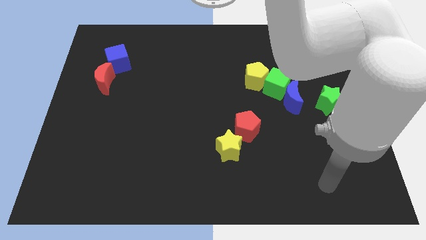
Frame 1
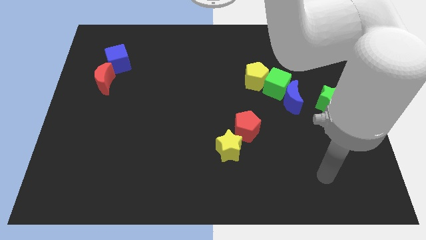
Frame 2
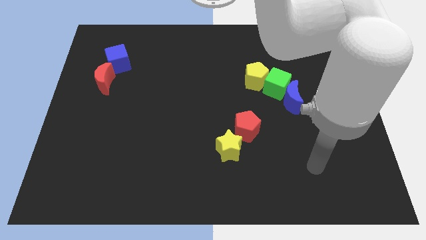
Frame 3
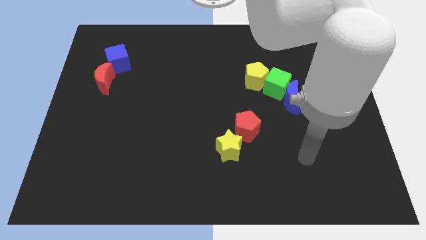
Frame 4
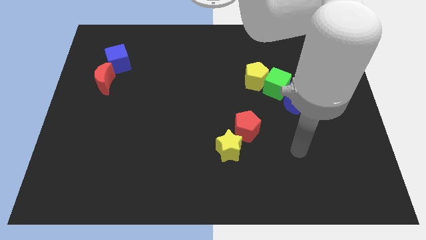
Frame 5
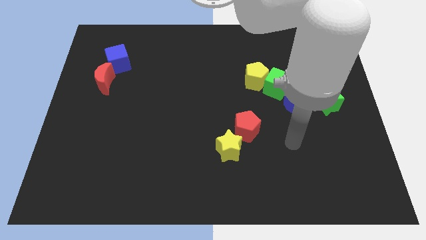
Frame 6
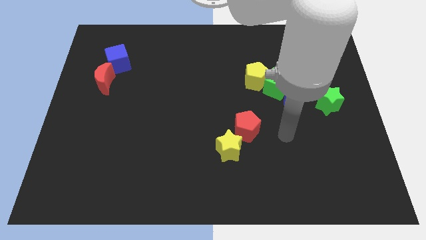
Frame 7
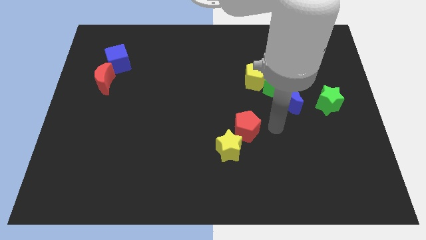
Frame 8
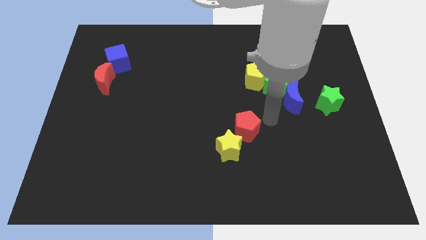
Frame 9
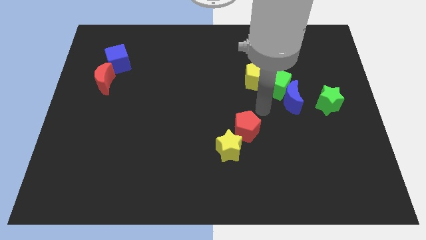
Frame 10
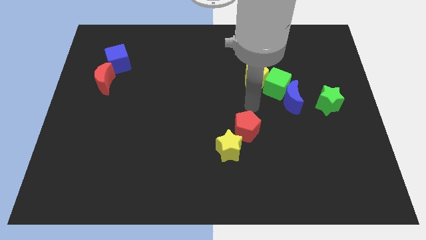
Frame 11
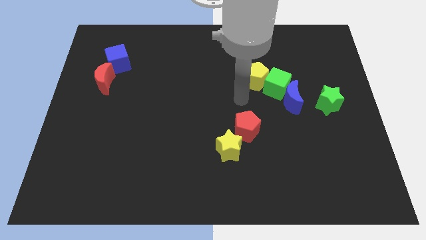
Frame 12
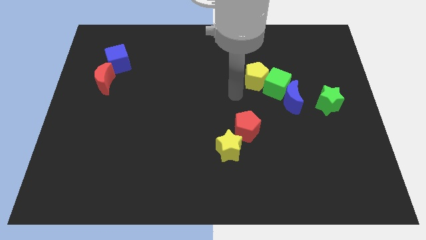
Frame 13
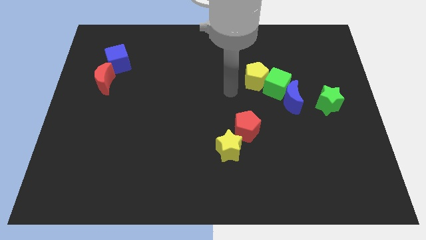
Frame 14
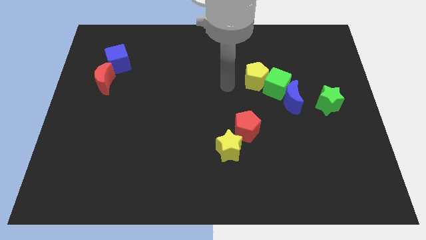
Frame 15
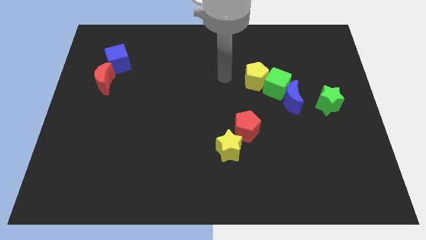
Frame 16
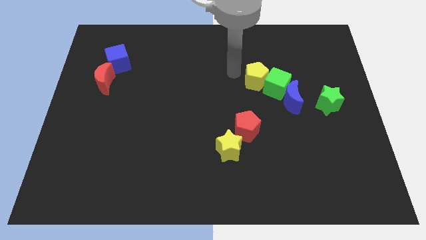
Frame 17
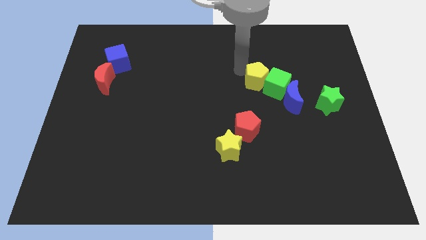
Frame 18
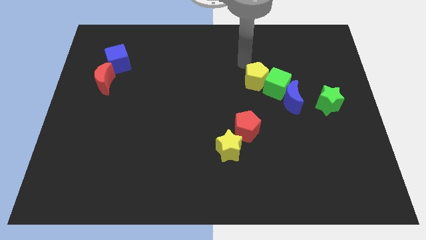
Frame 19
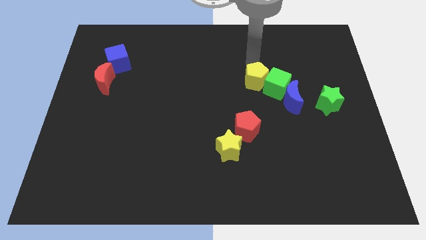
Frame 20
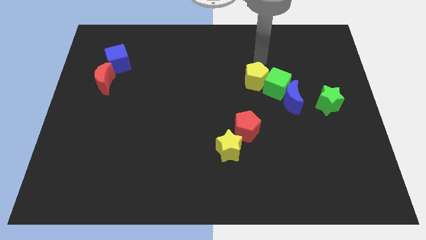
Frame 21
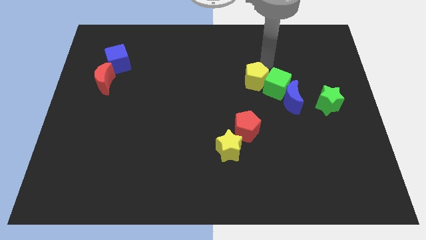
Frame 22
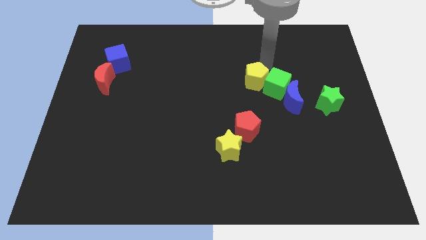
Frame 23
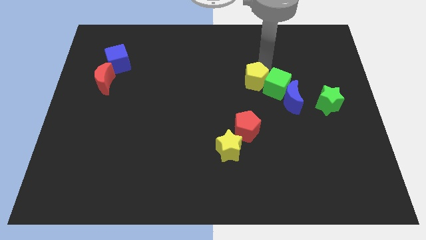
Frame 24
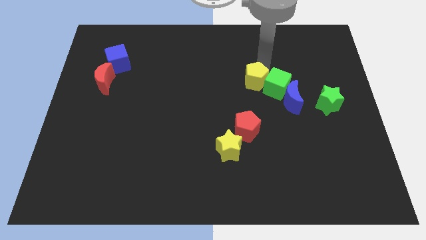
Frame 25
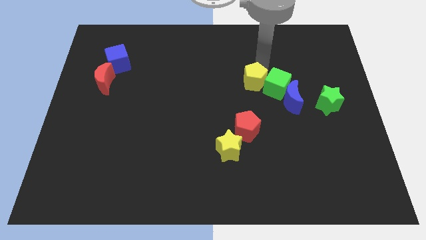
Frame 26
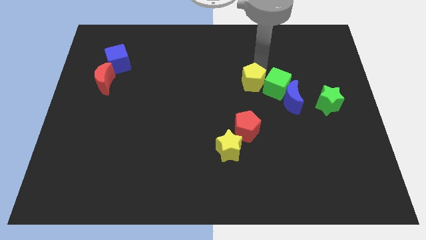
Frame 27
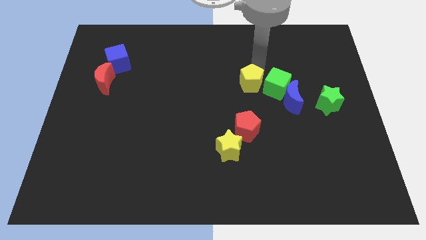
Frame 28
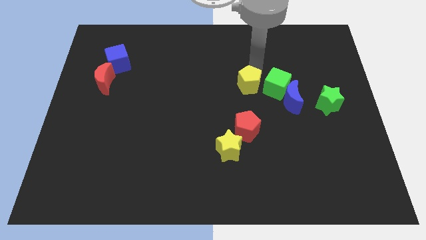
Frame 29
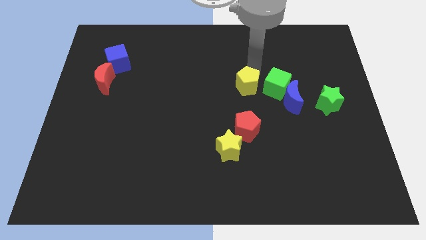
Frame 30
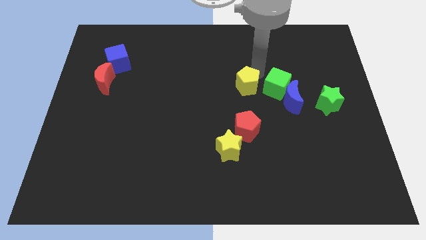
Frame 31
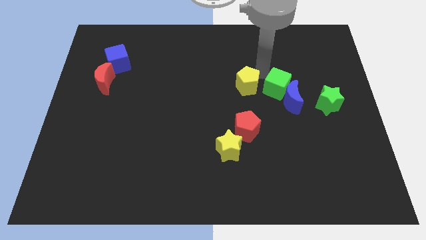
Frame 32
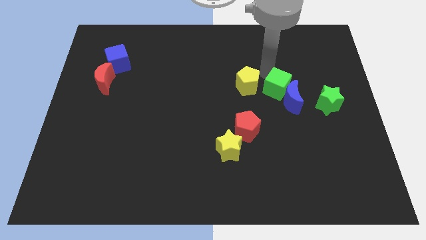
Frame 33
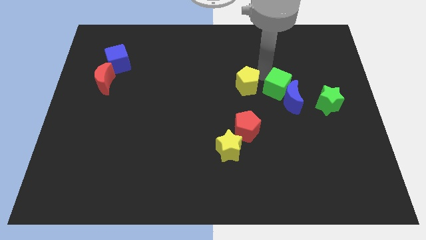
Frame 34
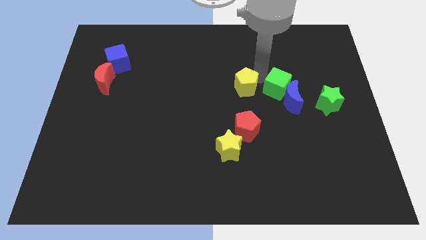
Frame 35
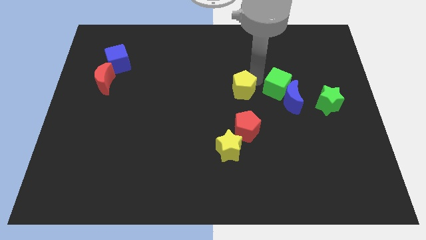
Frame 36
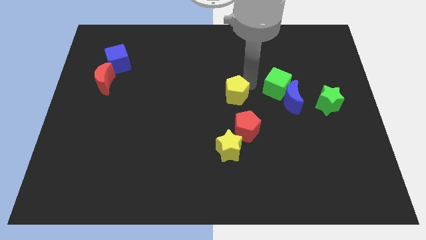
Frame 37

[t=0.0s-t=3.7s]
push the yellow pentagon a little down and left diagonally

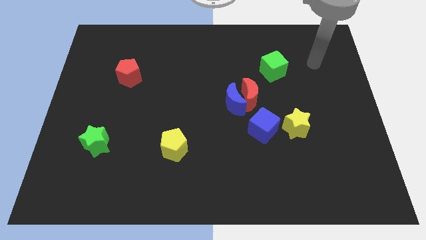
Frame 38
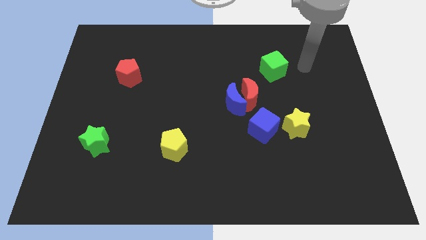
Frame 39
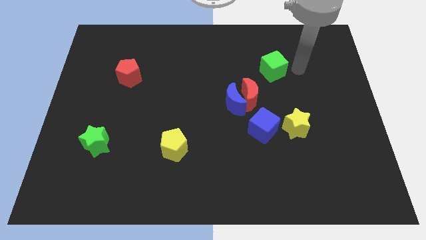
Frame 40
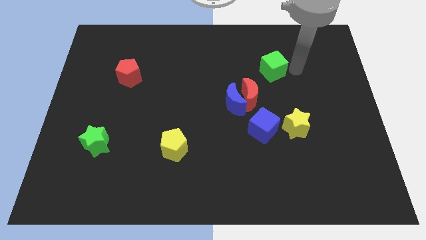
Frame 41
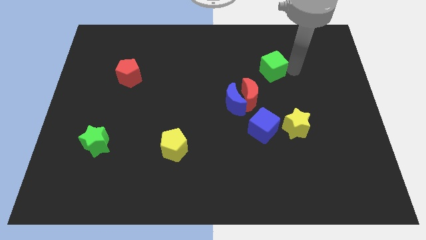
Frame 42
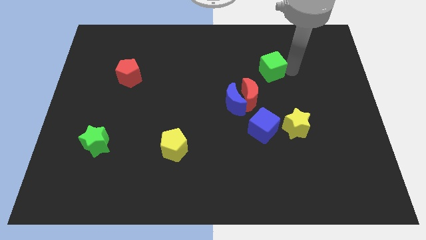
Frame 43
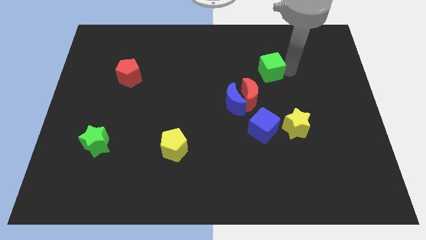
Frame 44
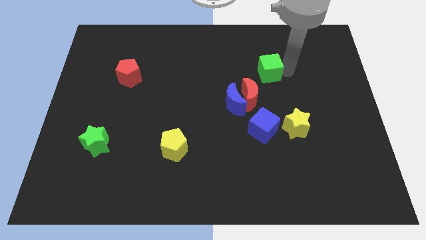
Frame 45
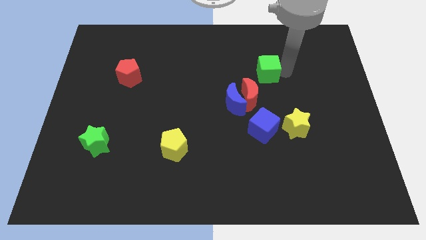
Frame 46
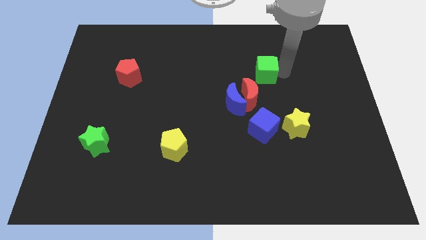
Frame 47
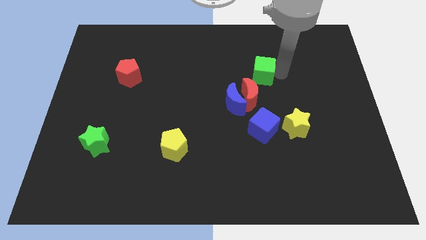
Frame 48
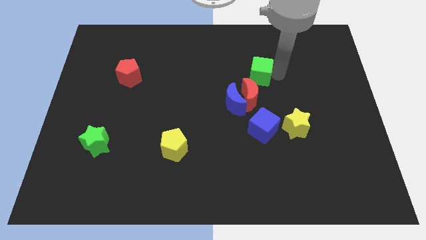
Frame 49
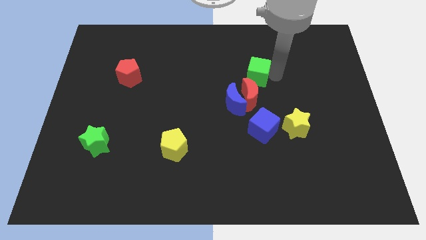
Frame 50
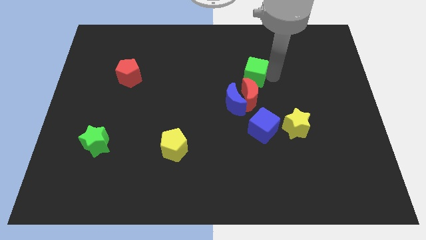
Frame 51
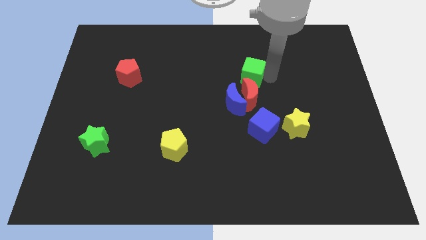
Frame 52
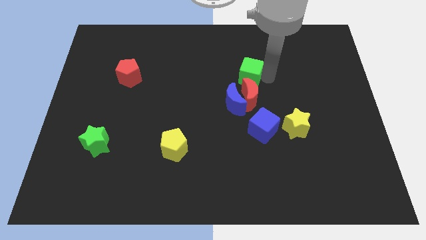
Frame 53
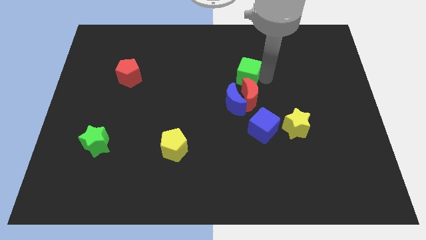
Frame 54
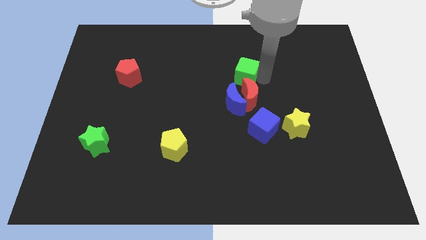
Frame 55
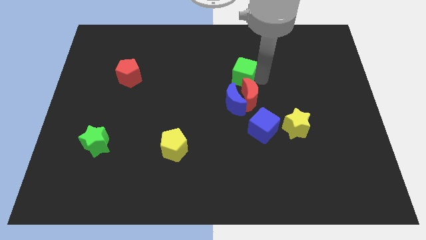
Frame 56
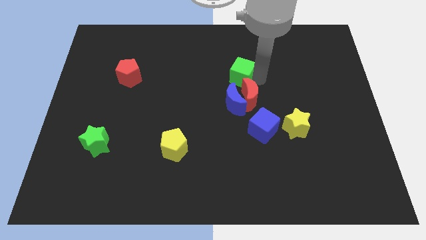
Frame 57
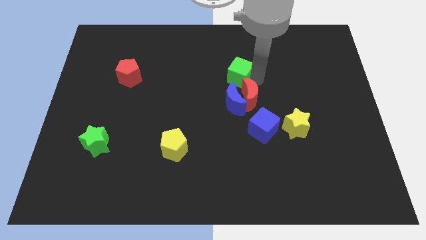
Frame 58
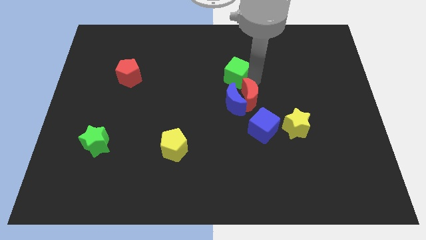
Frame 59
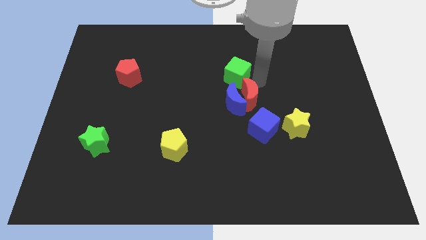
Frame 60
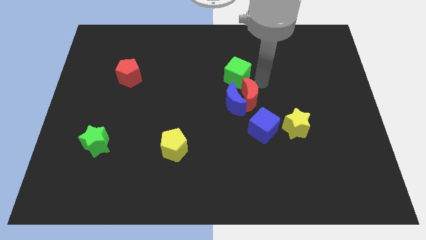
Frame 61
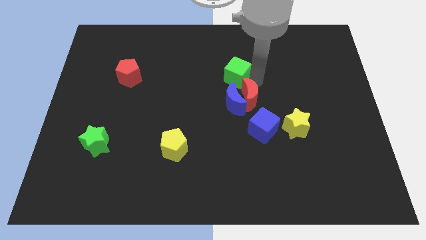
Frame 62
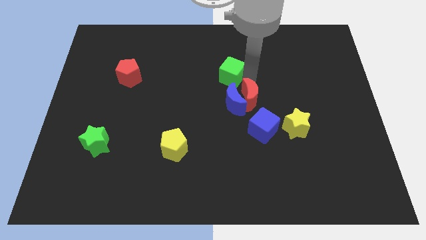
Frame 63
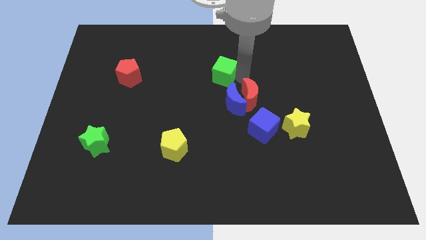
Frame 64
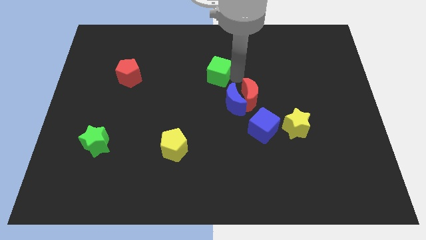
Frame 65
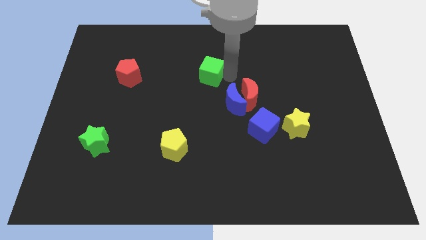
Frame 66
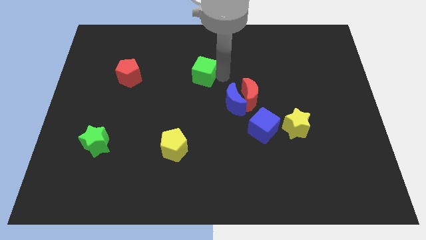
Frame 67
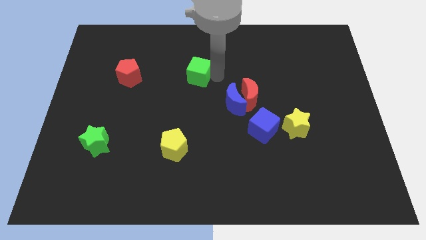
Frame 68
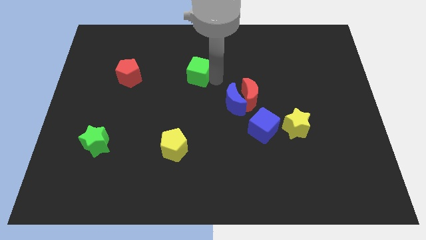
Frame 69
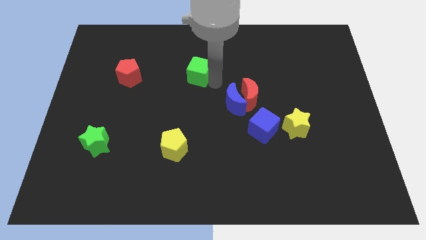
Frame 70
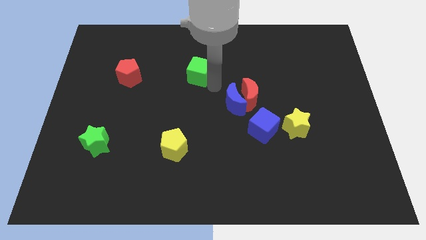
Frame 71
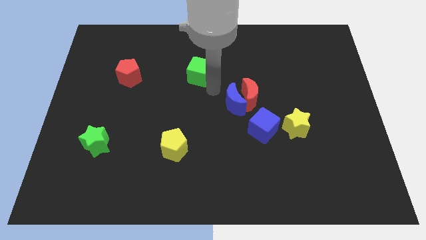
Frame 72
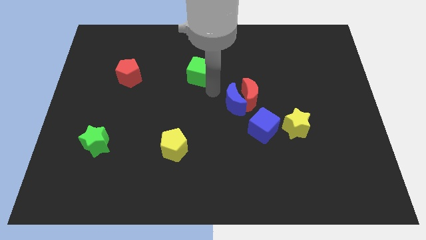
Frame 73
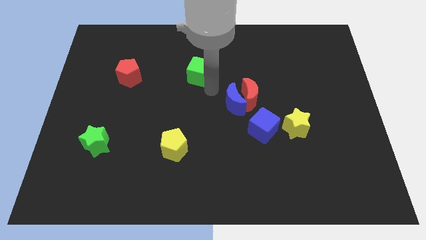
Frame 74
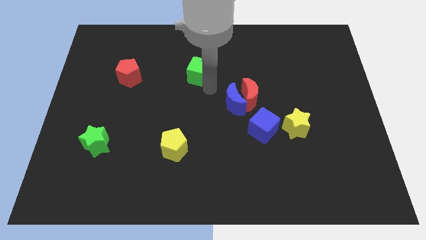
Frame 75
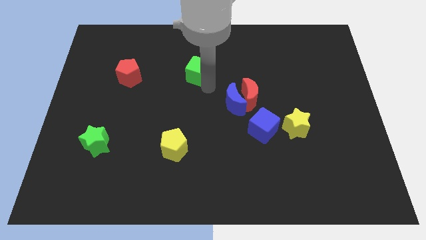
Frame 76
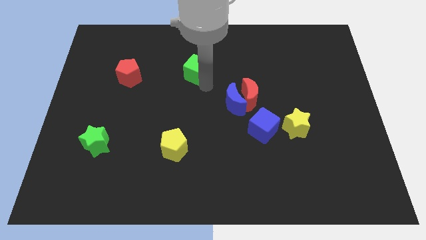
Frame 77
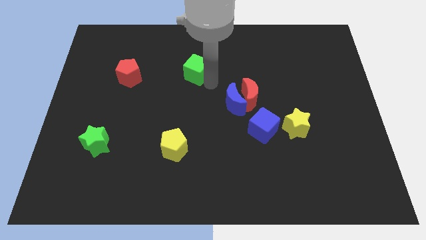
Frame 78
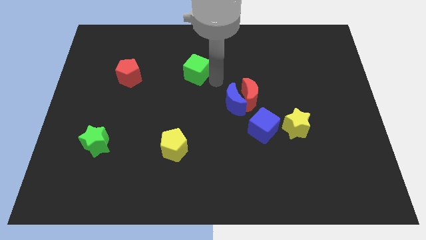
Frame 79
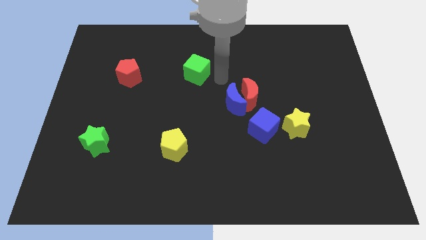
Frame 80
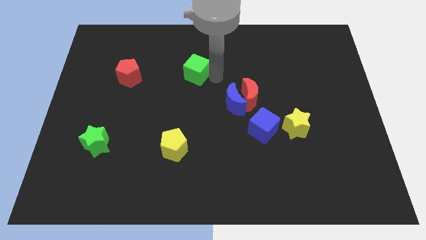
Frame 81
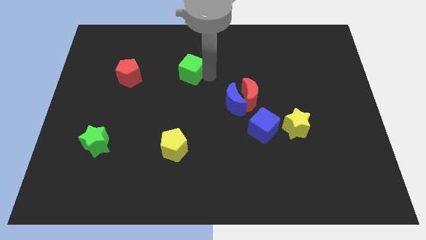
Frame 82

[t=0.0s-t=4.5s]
move the green cube to the left
